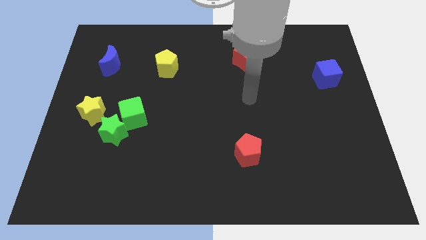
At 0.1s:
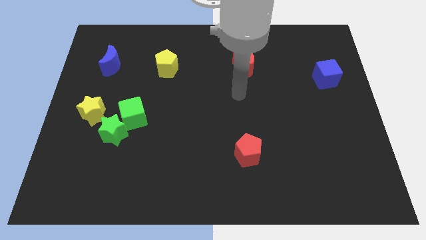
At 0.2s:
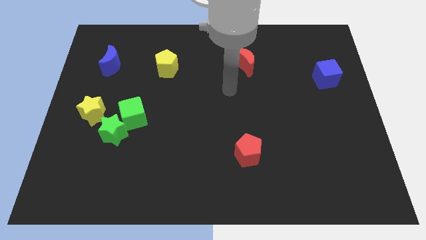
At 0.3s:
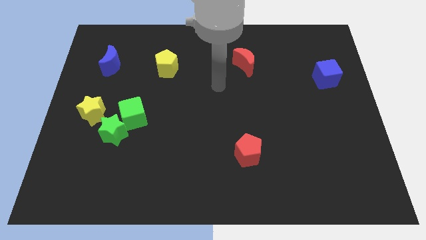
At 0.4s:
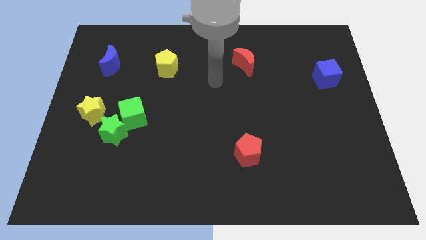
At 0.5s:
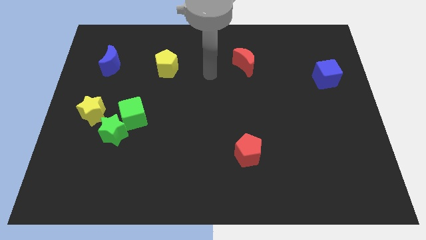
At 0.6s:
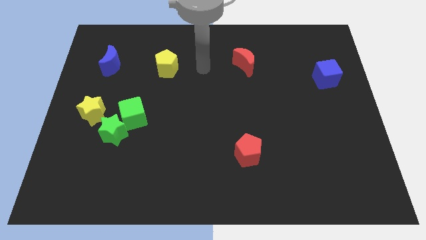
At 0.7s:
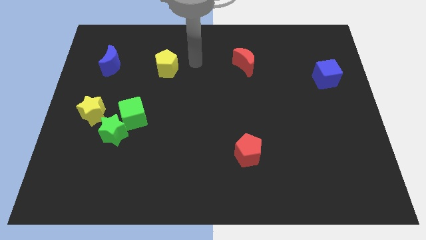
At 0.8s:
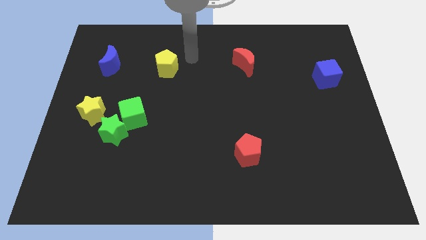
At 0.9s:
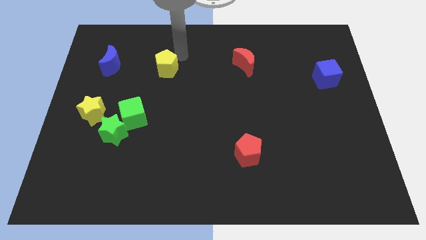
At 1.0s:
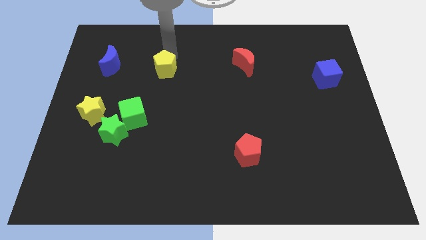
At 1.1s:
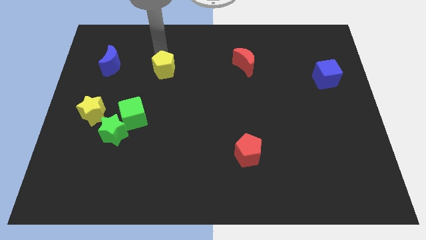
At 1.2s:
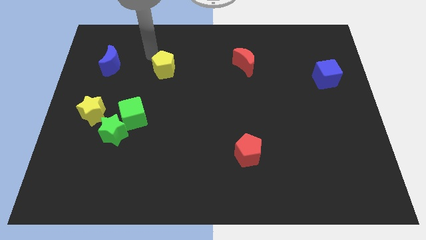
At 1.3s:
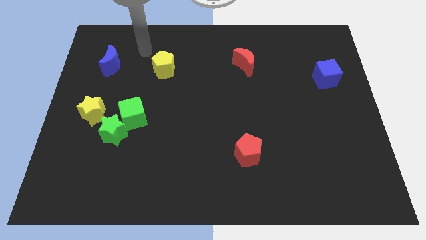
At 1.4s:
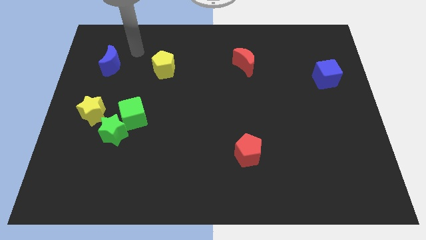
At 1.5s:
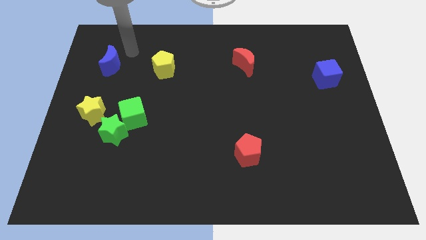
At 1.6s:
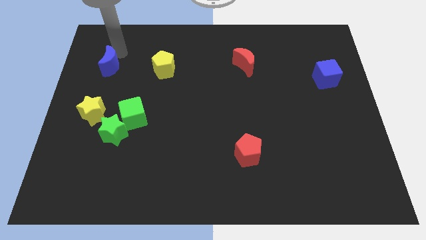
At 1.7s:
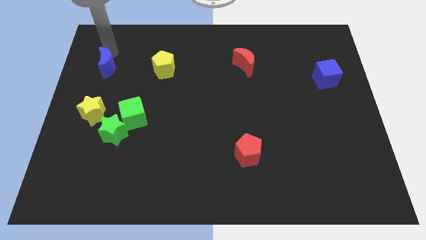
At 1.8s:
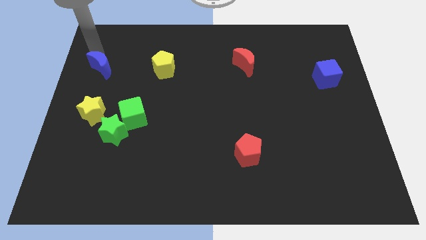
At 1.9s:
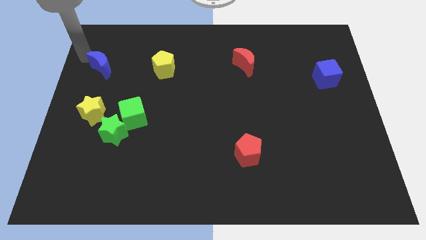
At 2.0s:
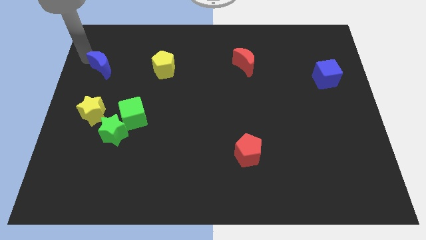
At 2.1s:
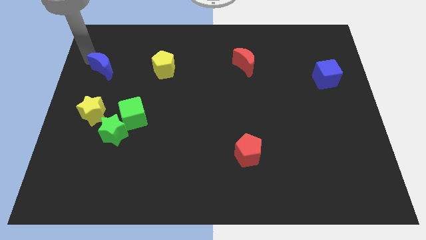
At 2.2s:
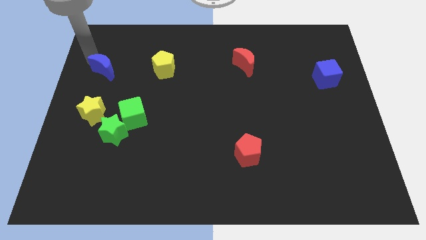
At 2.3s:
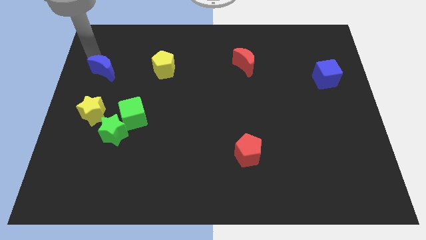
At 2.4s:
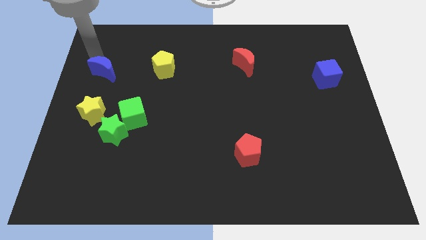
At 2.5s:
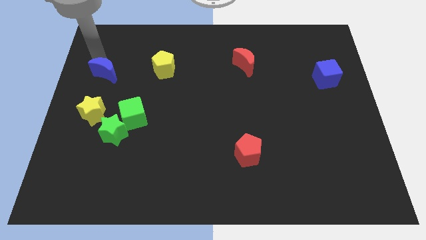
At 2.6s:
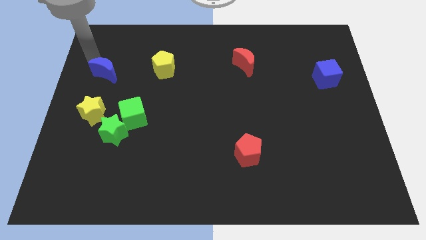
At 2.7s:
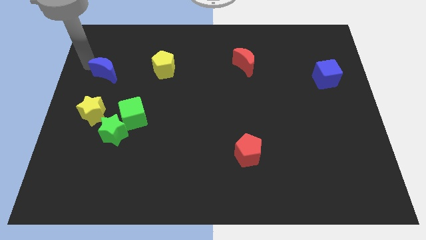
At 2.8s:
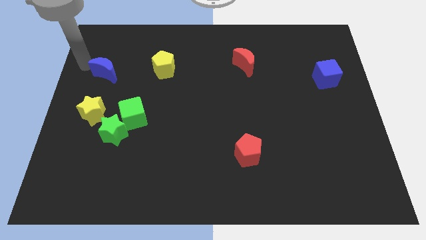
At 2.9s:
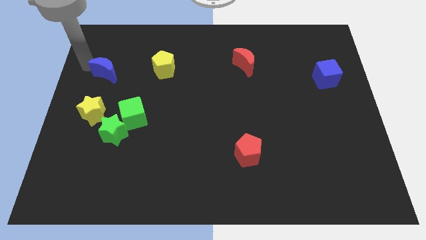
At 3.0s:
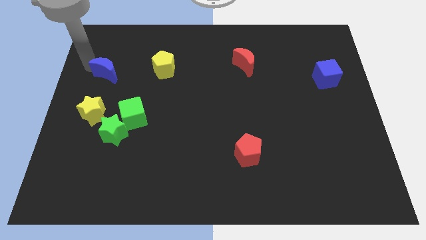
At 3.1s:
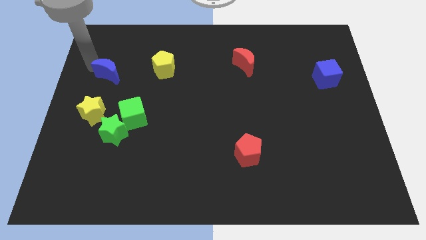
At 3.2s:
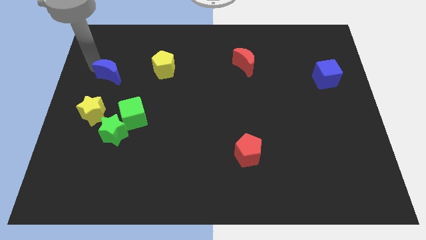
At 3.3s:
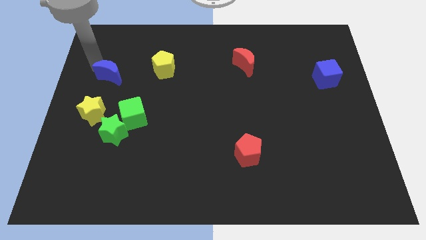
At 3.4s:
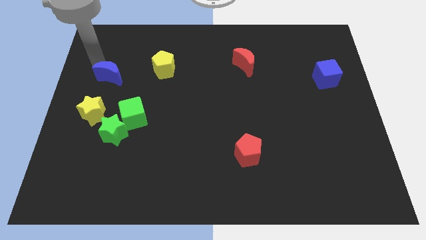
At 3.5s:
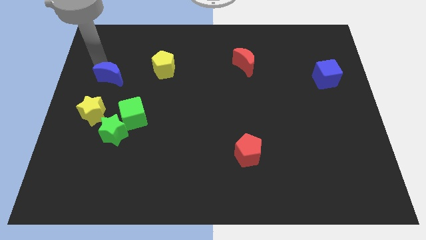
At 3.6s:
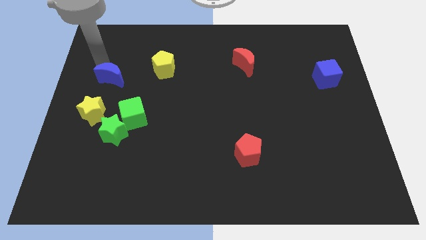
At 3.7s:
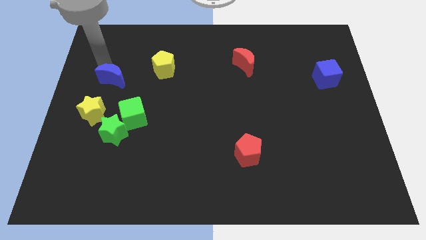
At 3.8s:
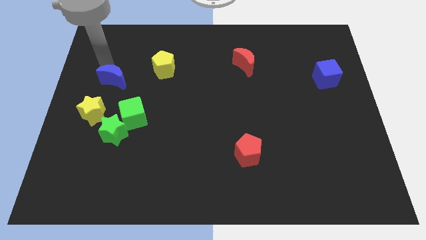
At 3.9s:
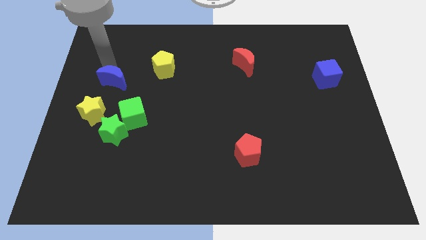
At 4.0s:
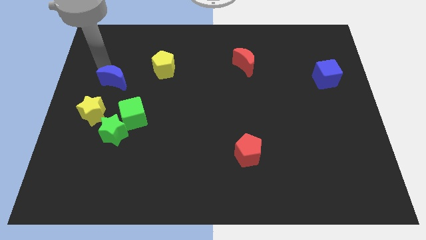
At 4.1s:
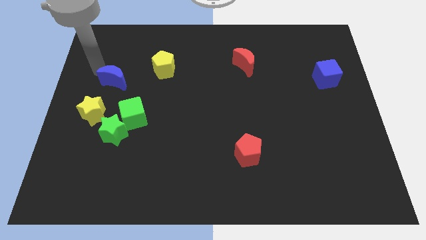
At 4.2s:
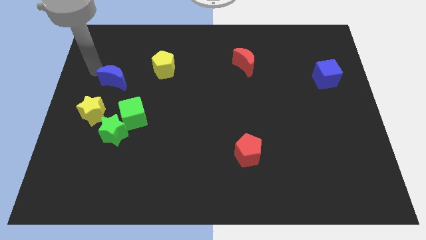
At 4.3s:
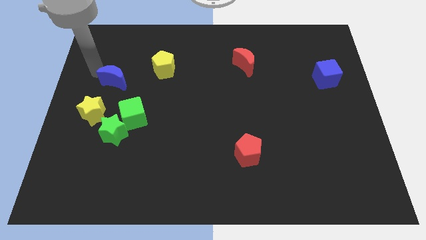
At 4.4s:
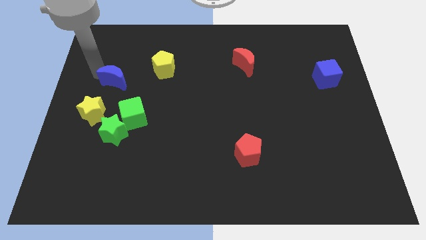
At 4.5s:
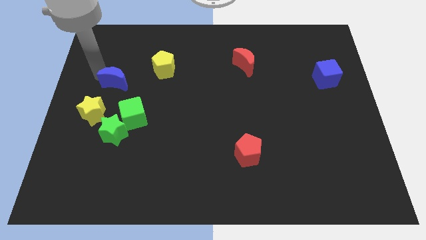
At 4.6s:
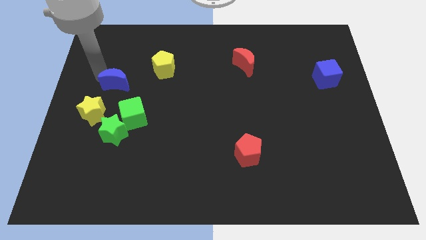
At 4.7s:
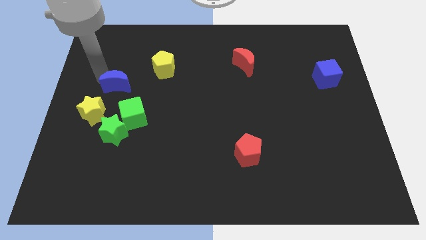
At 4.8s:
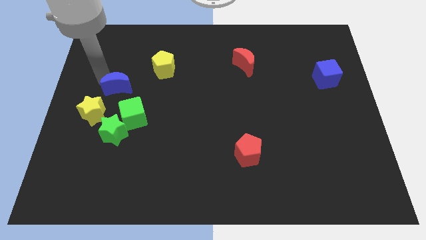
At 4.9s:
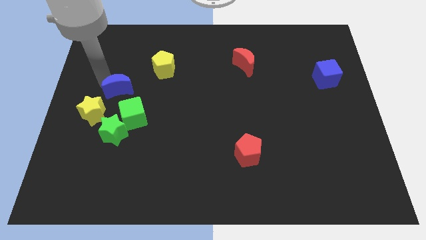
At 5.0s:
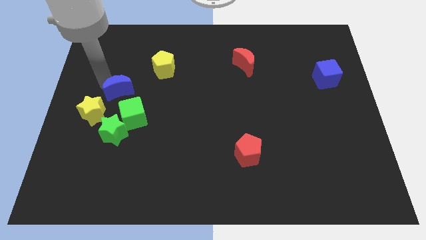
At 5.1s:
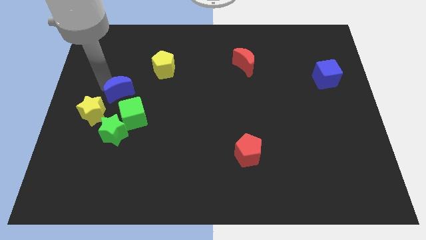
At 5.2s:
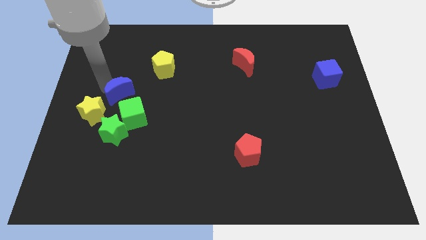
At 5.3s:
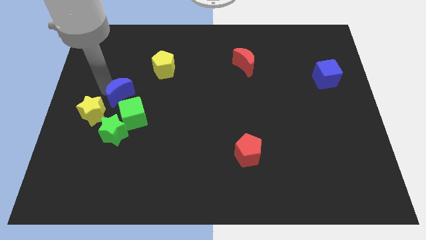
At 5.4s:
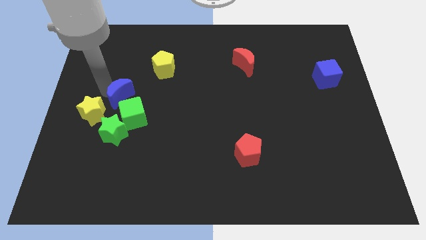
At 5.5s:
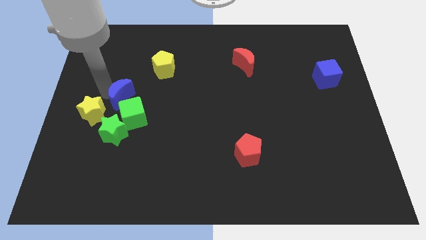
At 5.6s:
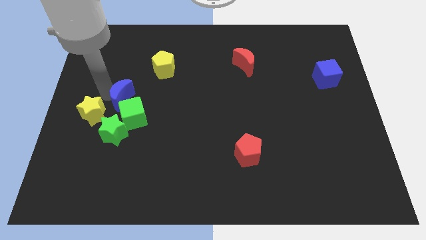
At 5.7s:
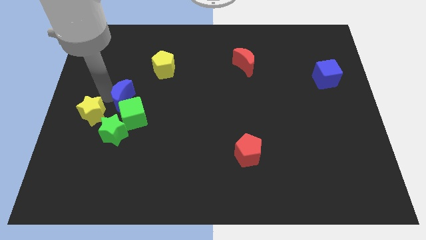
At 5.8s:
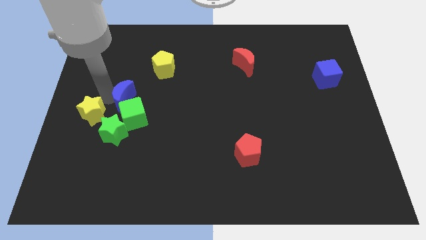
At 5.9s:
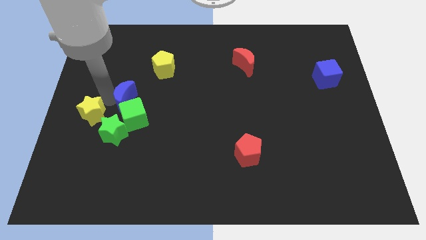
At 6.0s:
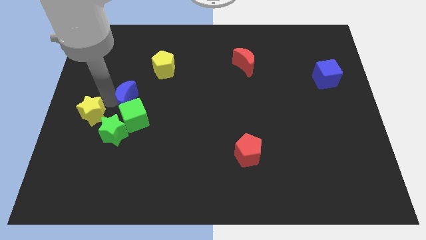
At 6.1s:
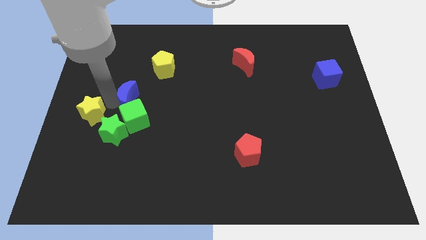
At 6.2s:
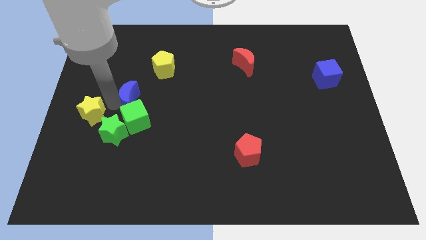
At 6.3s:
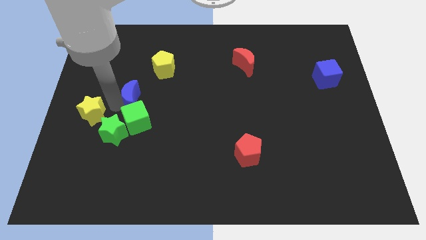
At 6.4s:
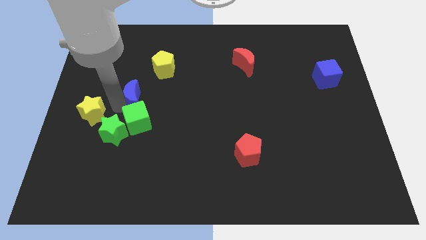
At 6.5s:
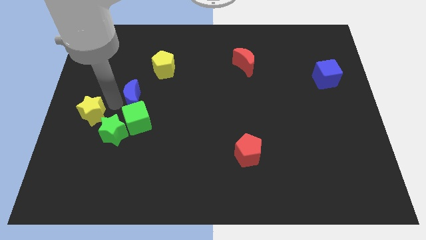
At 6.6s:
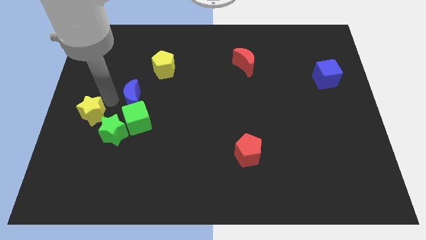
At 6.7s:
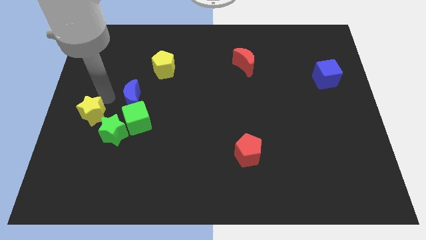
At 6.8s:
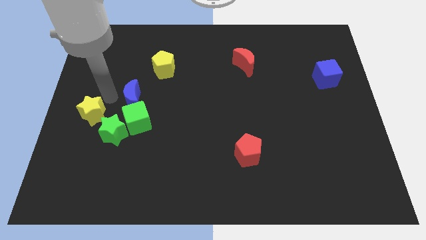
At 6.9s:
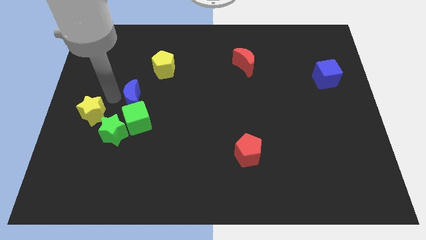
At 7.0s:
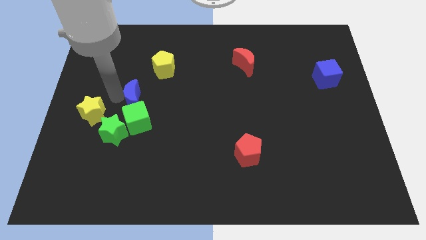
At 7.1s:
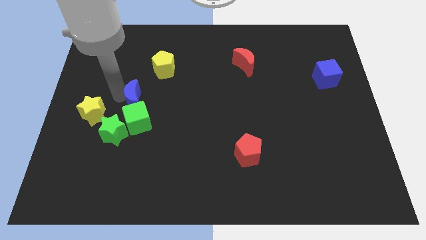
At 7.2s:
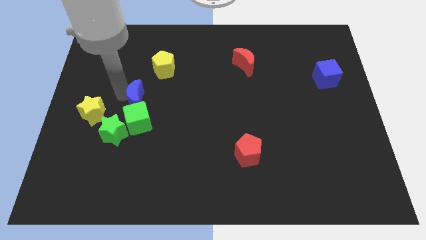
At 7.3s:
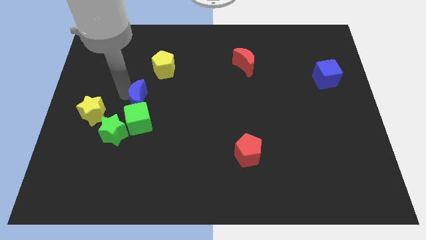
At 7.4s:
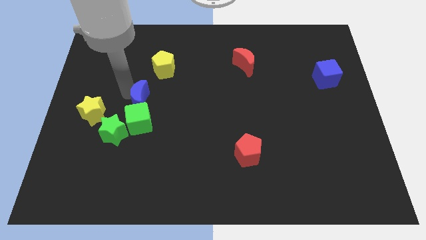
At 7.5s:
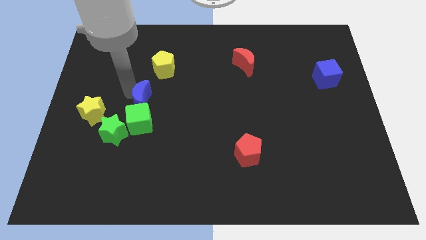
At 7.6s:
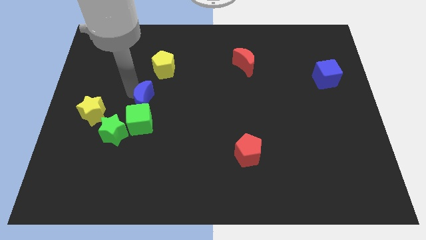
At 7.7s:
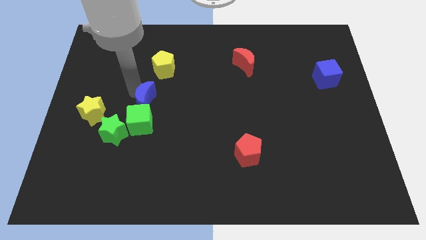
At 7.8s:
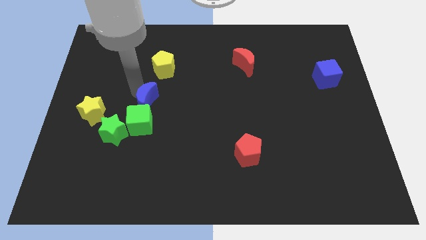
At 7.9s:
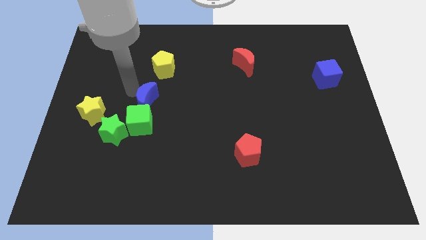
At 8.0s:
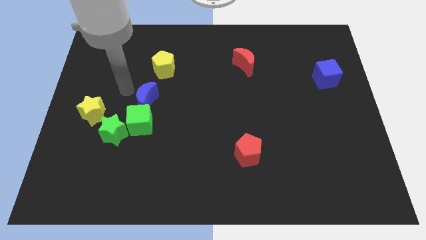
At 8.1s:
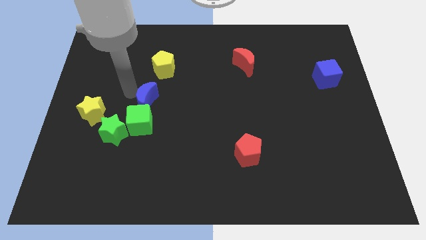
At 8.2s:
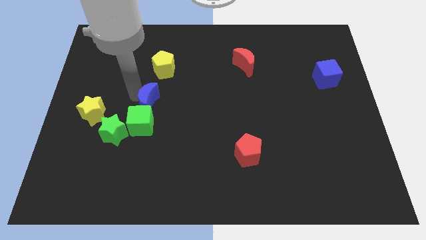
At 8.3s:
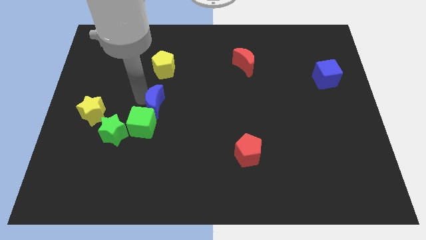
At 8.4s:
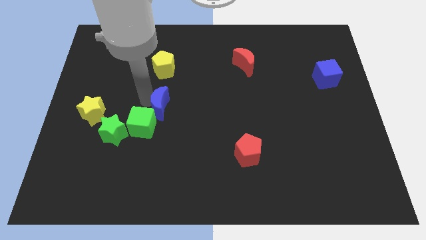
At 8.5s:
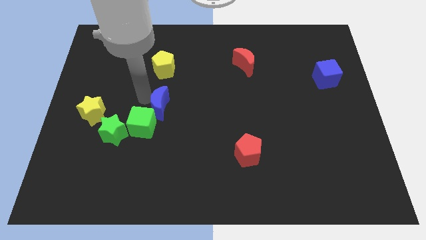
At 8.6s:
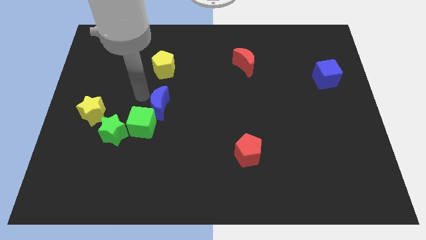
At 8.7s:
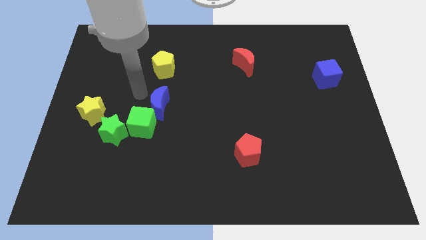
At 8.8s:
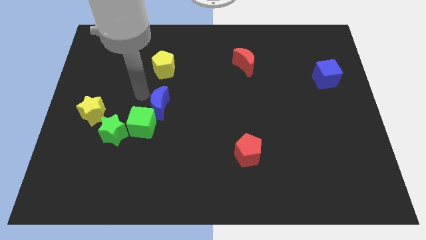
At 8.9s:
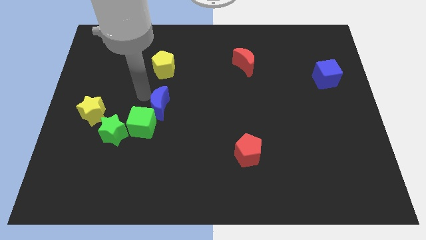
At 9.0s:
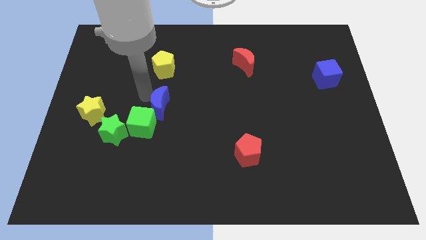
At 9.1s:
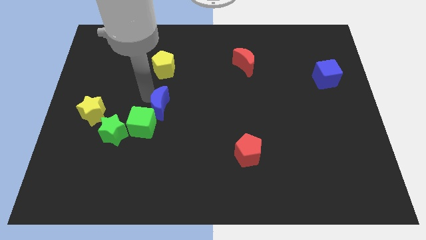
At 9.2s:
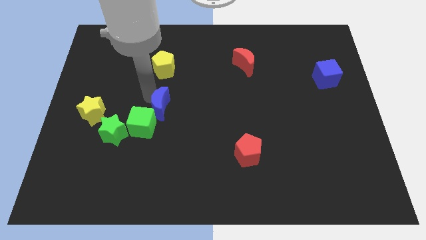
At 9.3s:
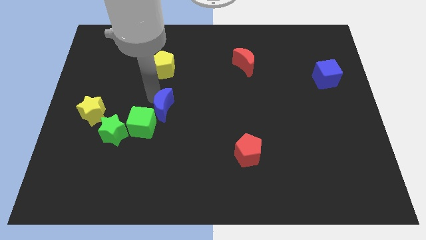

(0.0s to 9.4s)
move the blue moon downwards and right diagonally
